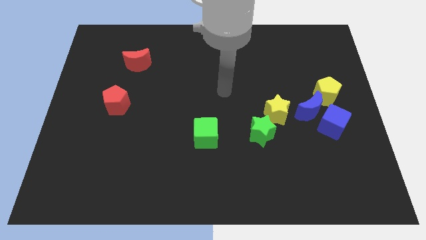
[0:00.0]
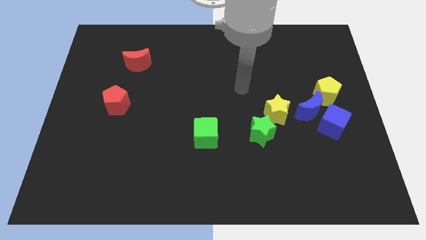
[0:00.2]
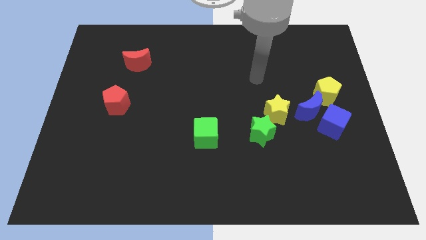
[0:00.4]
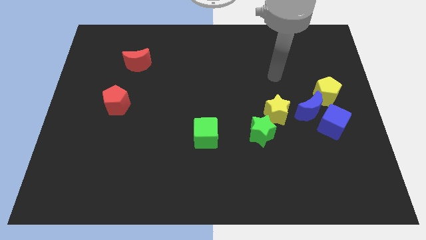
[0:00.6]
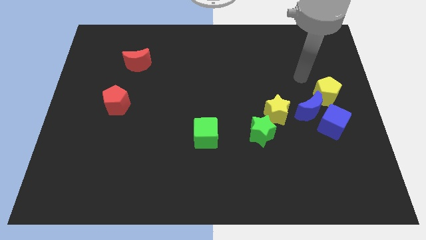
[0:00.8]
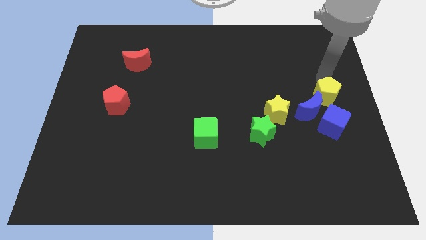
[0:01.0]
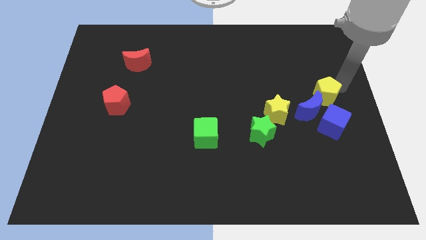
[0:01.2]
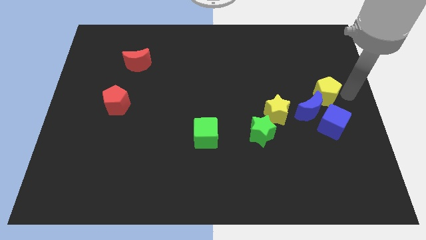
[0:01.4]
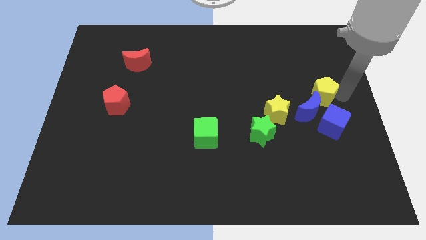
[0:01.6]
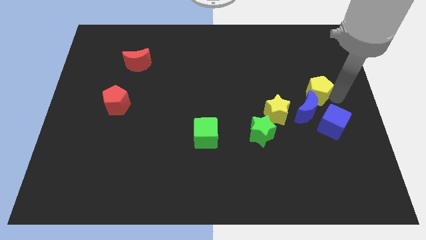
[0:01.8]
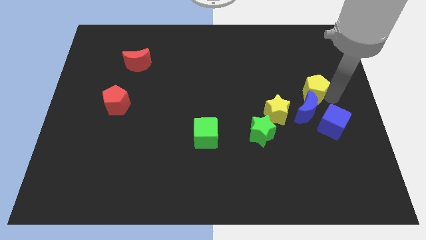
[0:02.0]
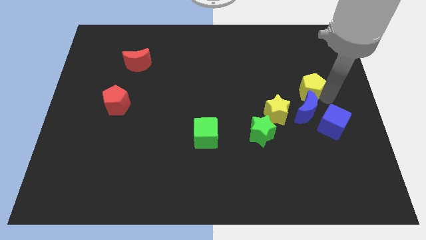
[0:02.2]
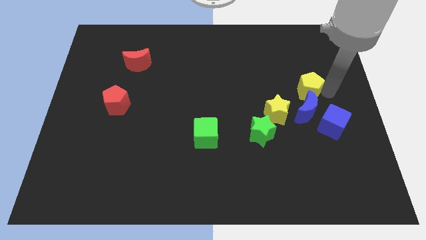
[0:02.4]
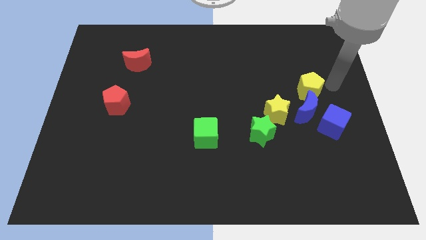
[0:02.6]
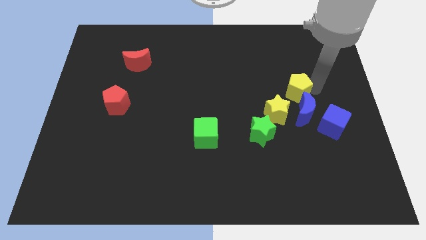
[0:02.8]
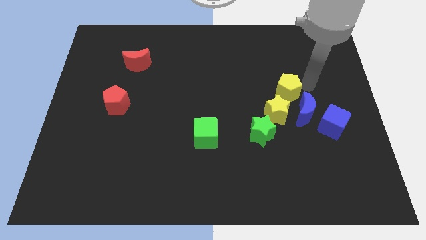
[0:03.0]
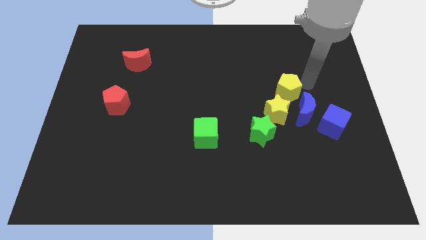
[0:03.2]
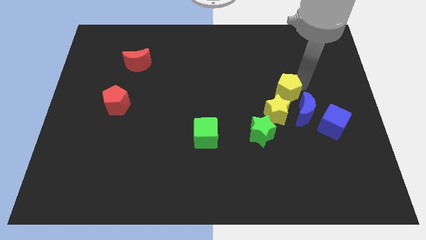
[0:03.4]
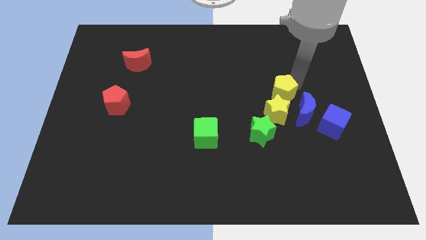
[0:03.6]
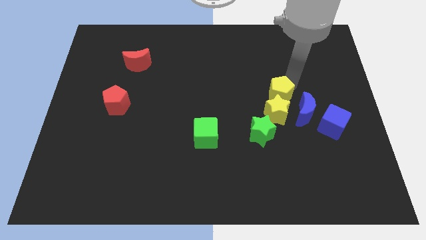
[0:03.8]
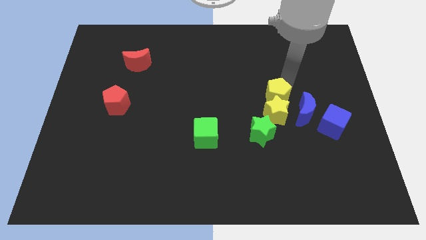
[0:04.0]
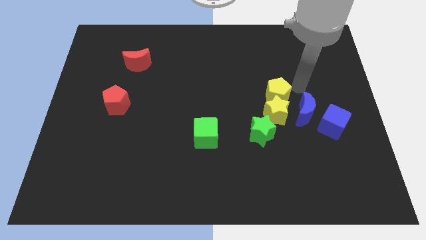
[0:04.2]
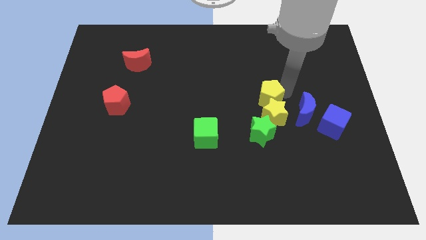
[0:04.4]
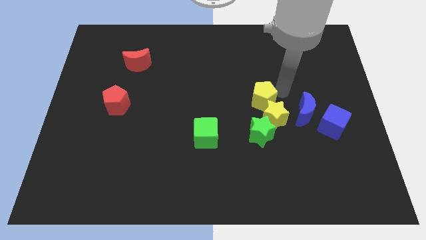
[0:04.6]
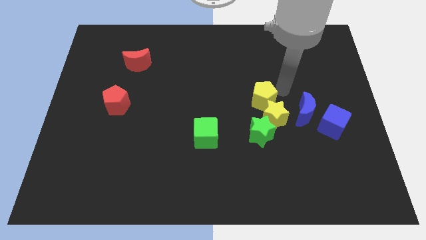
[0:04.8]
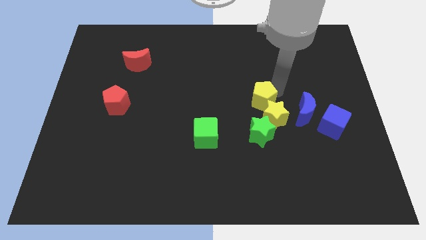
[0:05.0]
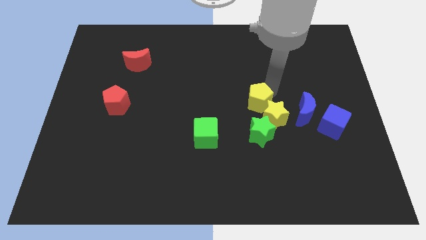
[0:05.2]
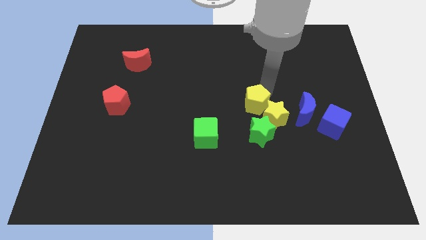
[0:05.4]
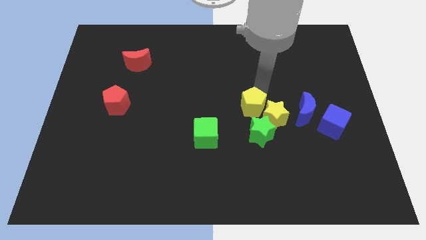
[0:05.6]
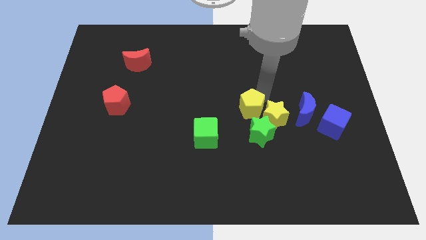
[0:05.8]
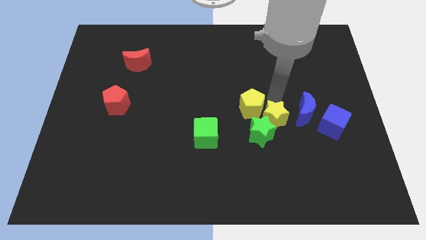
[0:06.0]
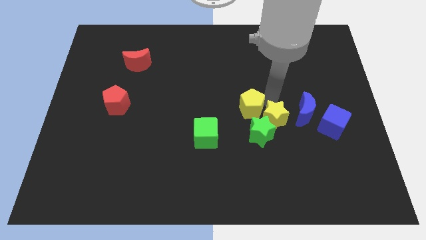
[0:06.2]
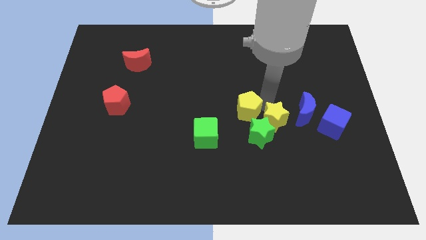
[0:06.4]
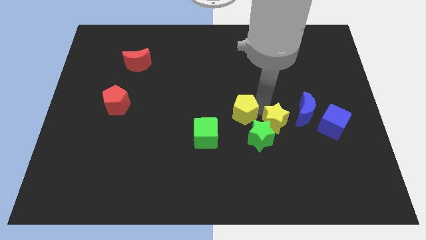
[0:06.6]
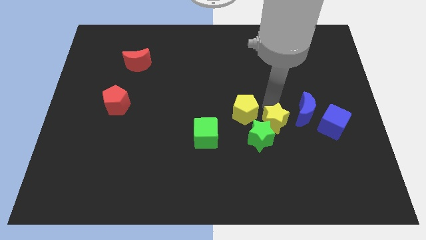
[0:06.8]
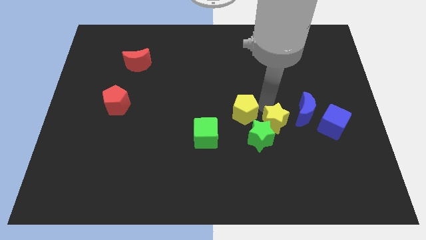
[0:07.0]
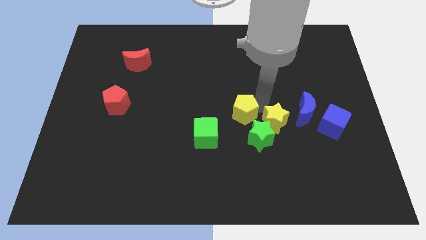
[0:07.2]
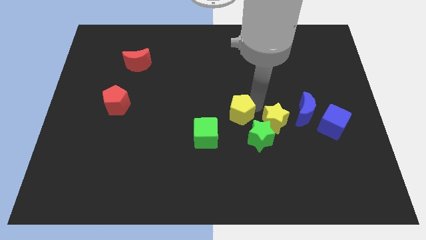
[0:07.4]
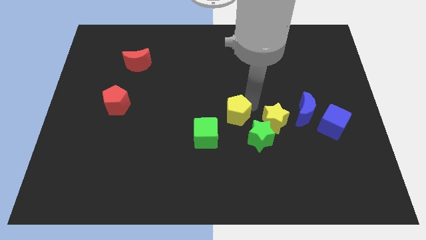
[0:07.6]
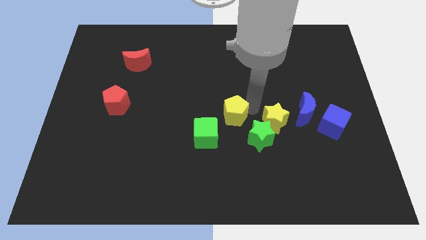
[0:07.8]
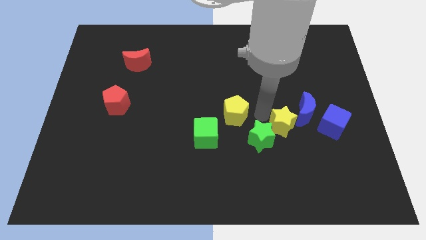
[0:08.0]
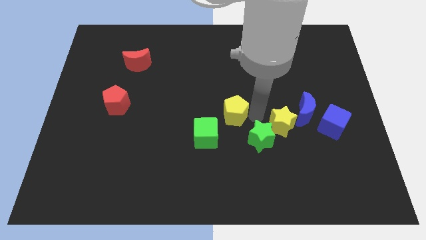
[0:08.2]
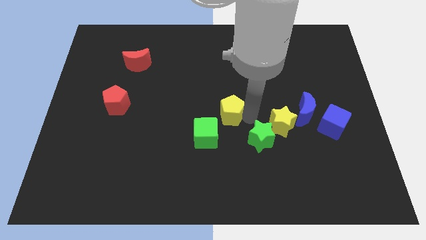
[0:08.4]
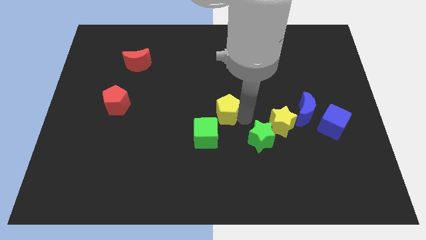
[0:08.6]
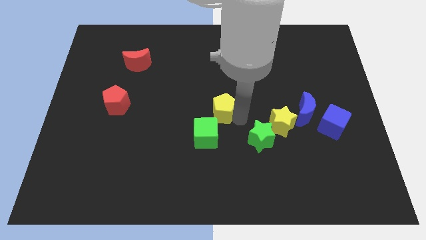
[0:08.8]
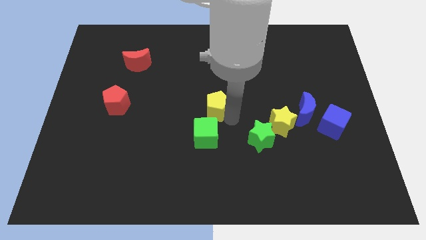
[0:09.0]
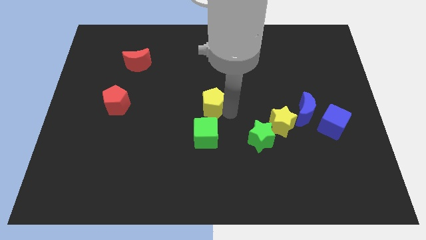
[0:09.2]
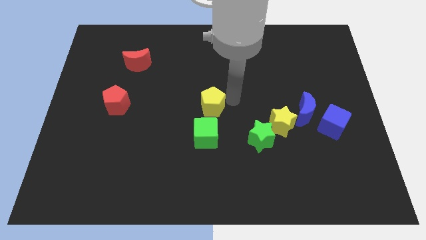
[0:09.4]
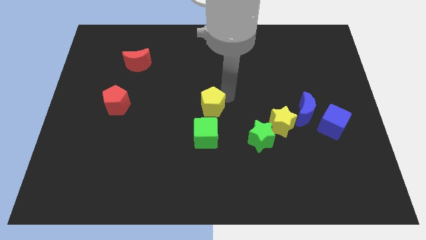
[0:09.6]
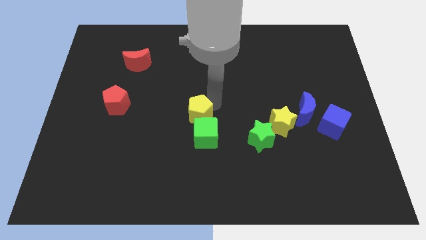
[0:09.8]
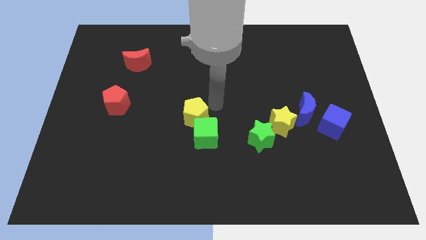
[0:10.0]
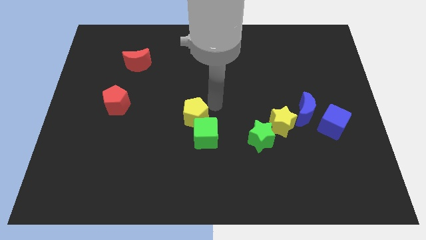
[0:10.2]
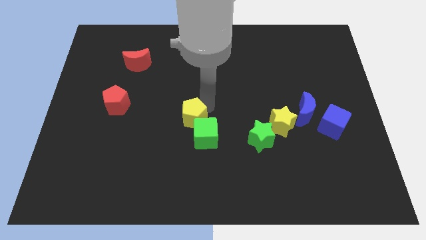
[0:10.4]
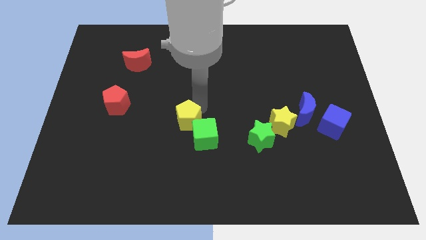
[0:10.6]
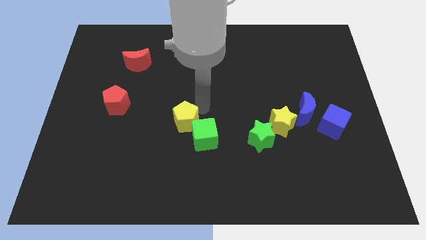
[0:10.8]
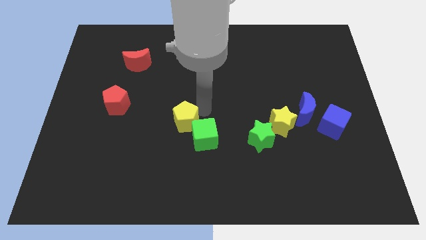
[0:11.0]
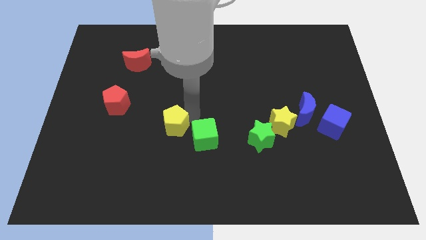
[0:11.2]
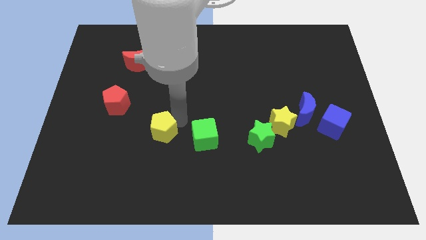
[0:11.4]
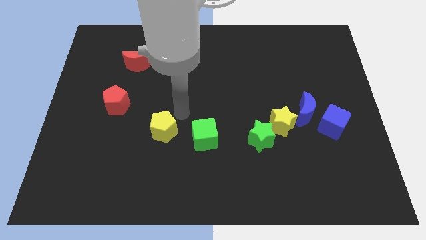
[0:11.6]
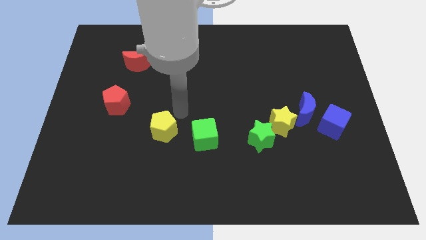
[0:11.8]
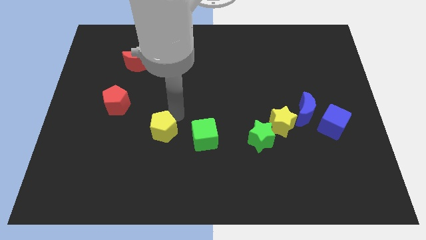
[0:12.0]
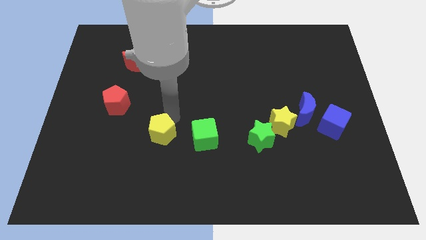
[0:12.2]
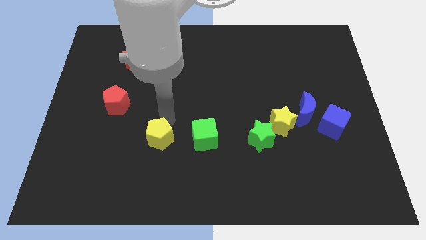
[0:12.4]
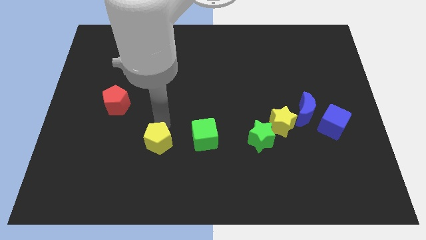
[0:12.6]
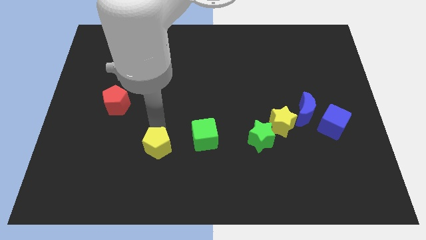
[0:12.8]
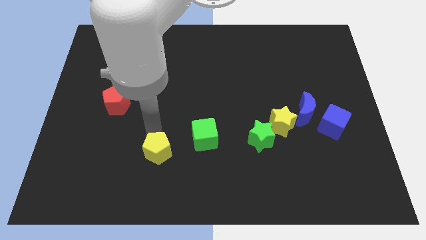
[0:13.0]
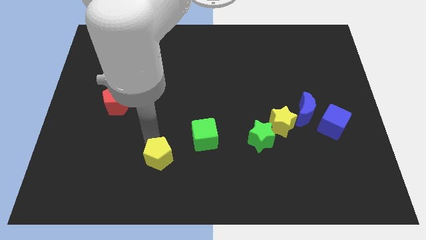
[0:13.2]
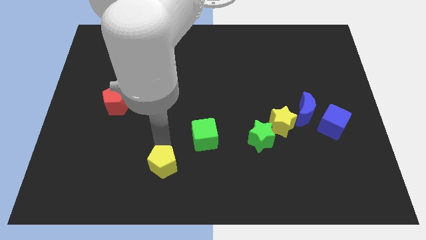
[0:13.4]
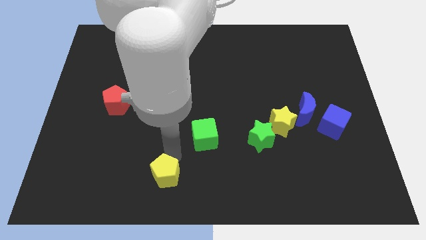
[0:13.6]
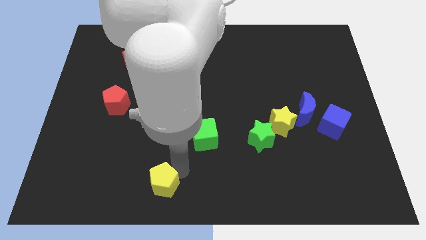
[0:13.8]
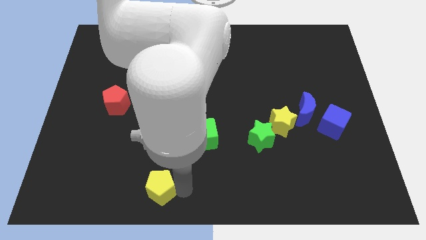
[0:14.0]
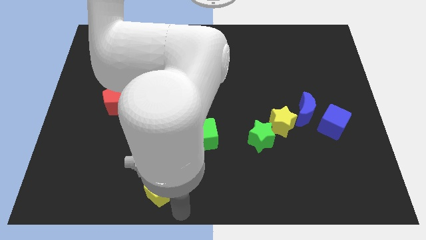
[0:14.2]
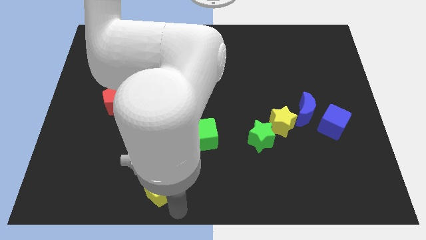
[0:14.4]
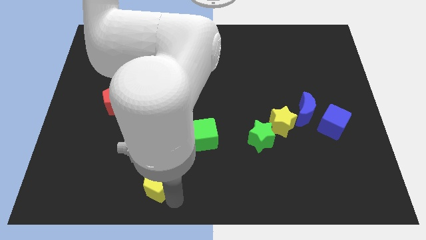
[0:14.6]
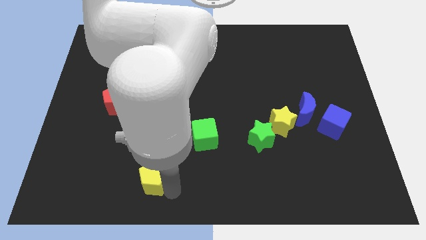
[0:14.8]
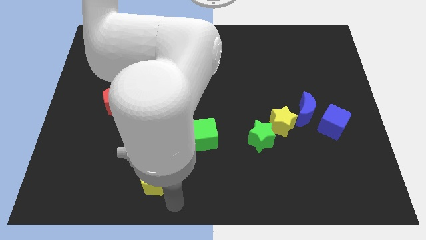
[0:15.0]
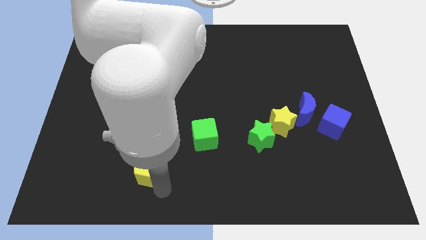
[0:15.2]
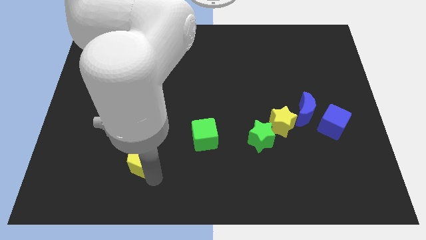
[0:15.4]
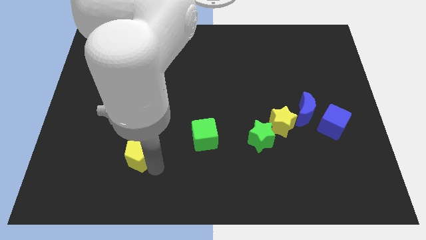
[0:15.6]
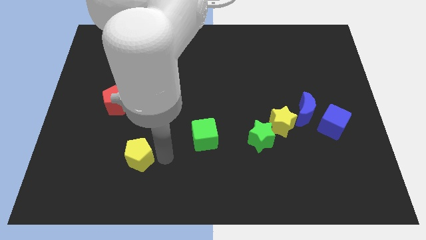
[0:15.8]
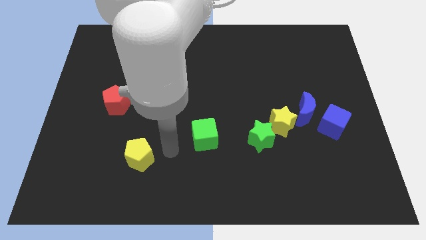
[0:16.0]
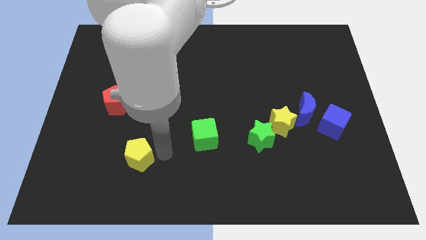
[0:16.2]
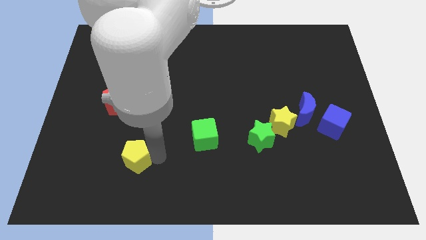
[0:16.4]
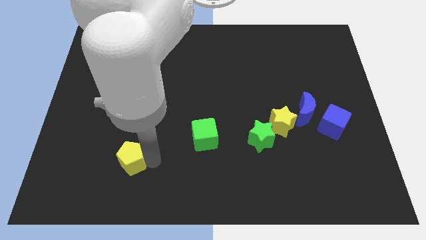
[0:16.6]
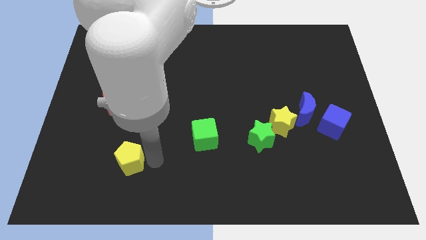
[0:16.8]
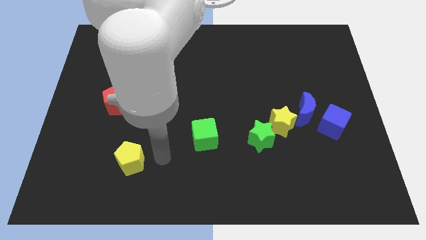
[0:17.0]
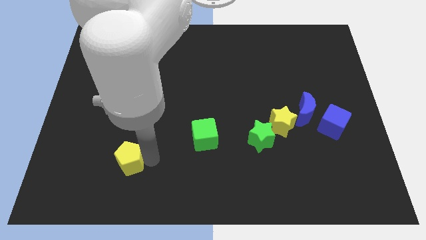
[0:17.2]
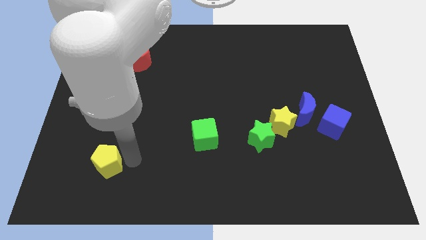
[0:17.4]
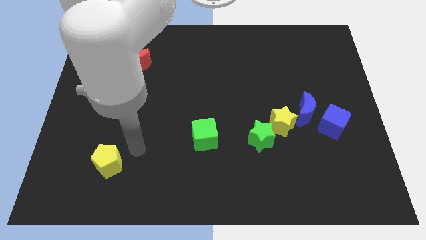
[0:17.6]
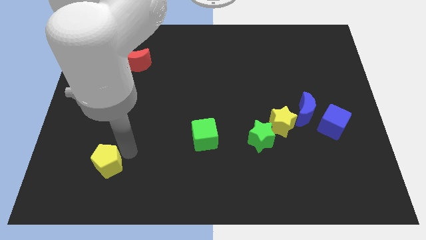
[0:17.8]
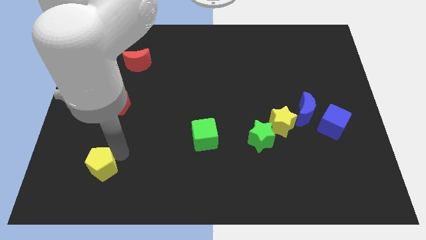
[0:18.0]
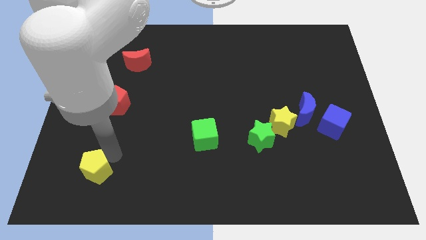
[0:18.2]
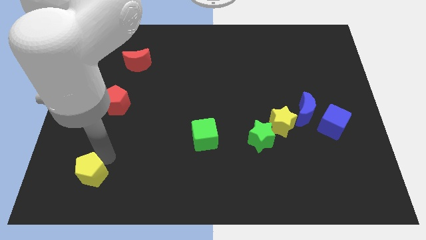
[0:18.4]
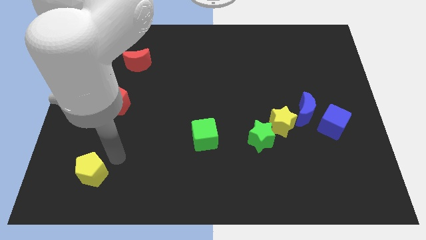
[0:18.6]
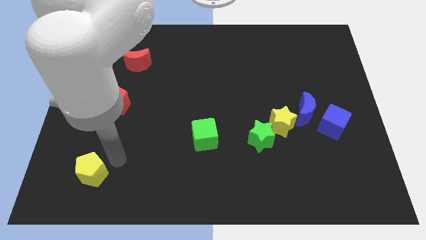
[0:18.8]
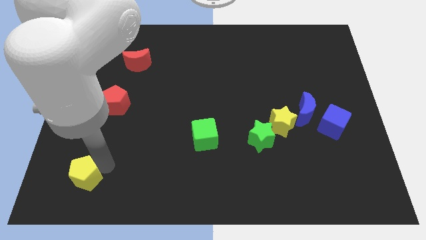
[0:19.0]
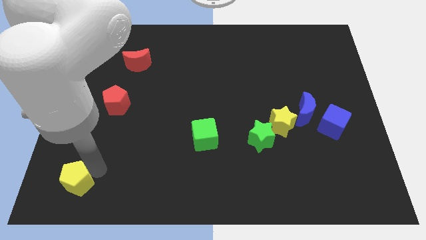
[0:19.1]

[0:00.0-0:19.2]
push the yellow pentagon to the bottom left corner
